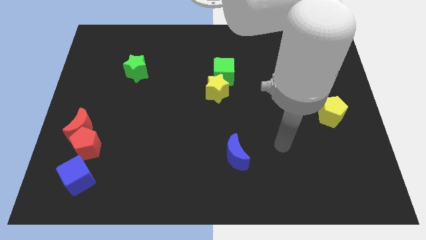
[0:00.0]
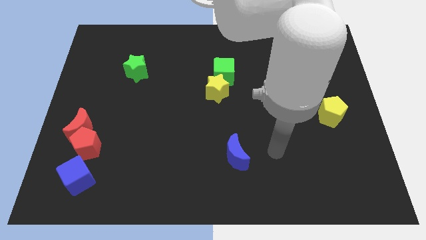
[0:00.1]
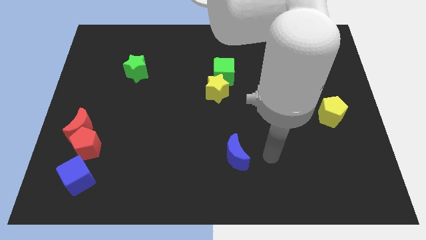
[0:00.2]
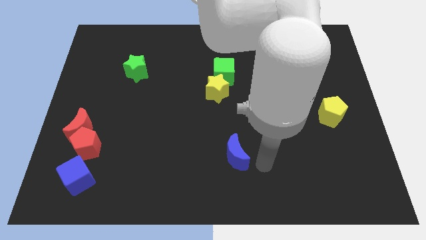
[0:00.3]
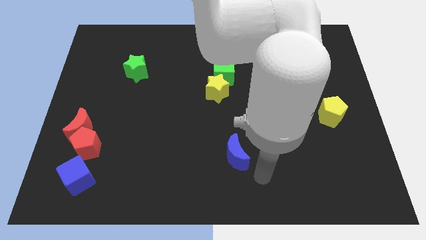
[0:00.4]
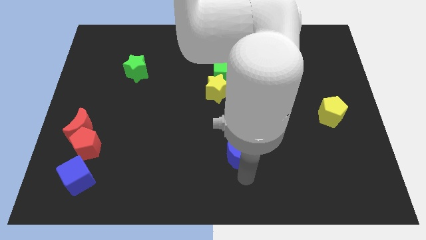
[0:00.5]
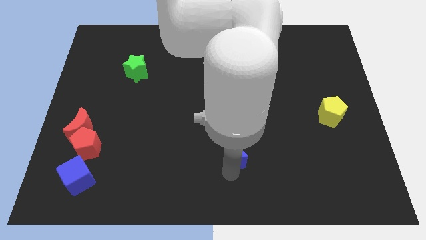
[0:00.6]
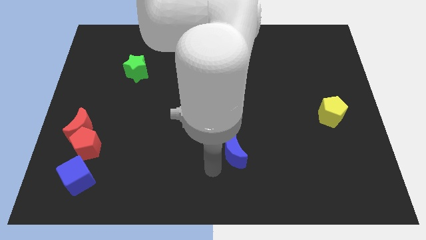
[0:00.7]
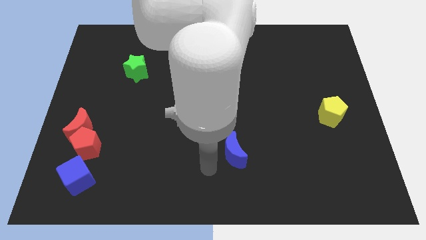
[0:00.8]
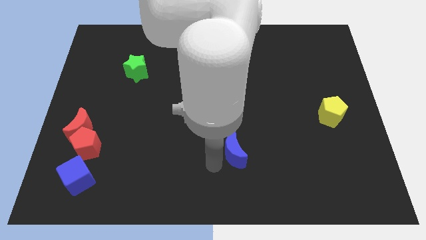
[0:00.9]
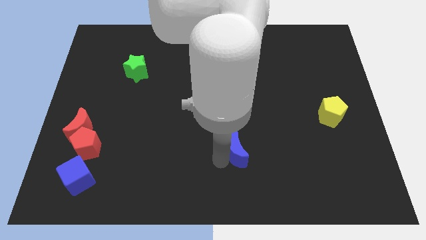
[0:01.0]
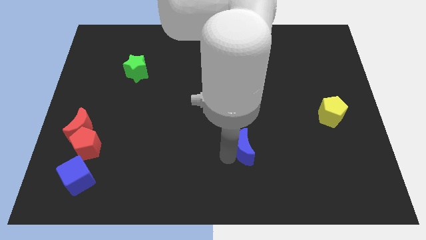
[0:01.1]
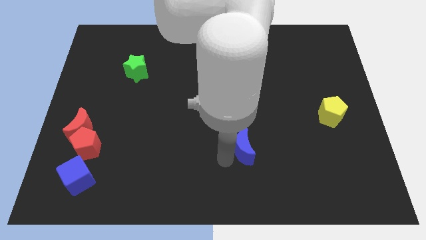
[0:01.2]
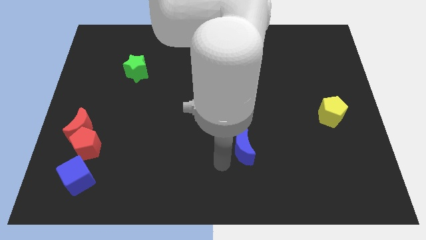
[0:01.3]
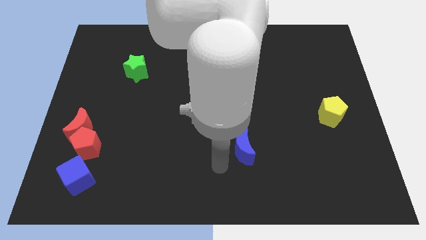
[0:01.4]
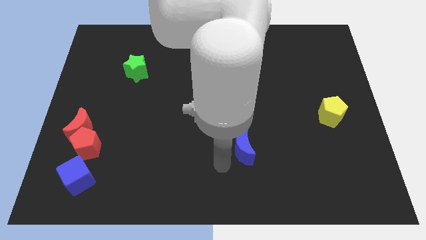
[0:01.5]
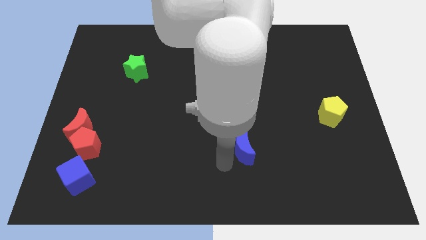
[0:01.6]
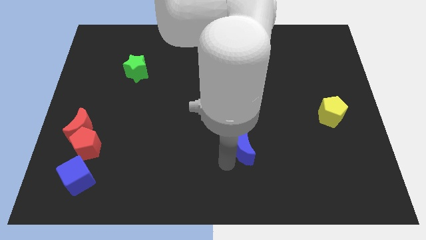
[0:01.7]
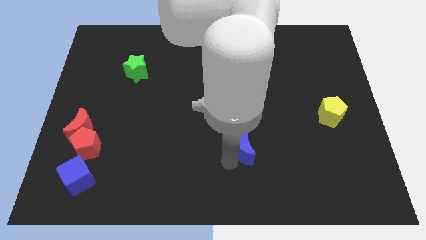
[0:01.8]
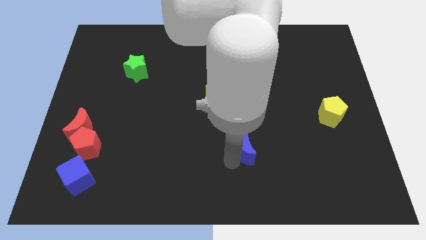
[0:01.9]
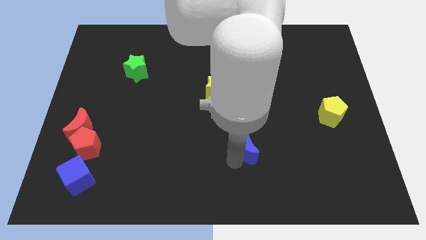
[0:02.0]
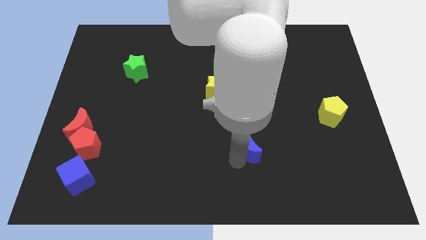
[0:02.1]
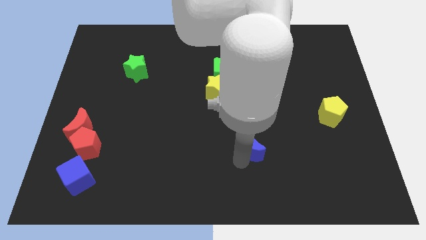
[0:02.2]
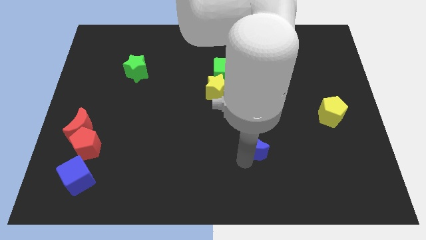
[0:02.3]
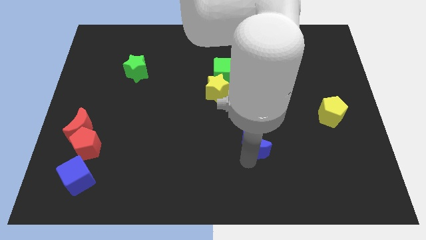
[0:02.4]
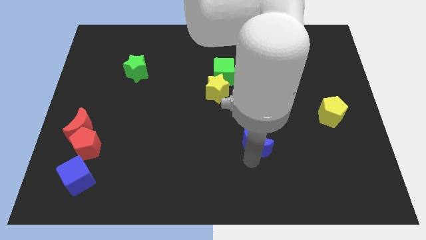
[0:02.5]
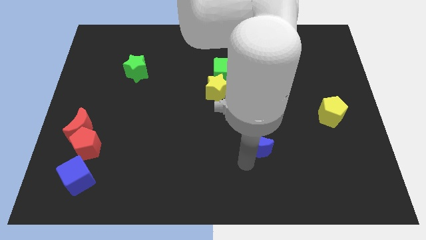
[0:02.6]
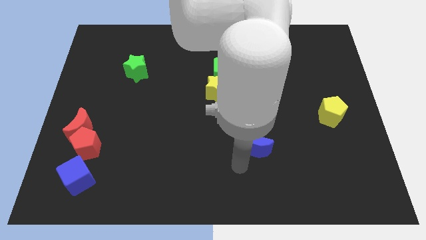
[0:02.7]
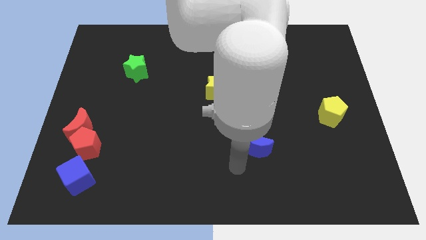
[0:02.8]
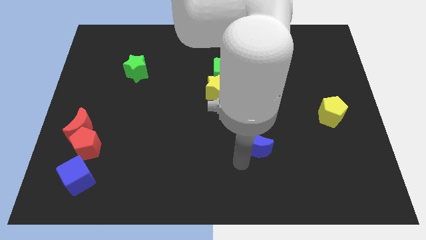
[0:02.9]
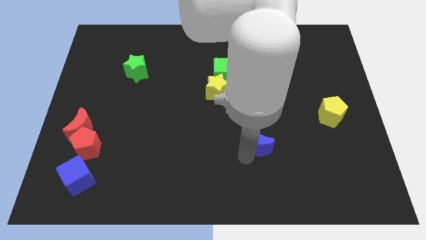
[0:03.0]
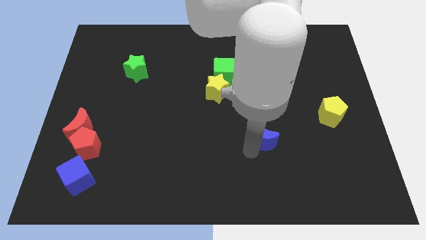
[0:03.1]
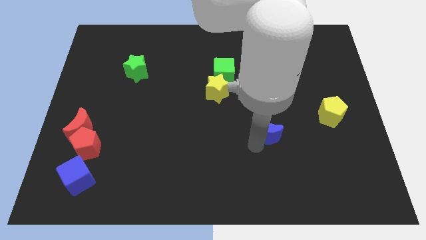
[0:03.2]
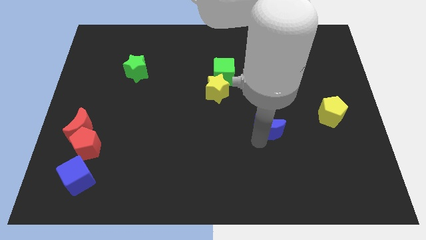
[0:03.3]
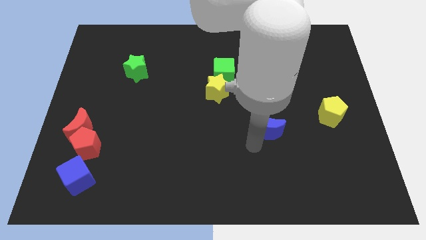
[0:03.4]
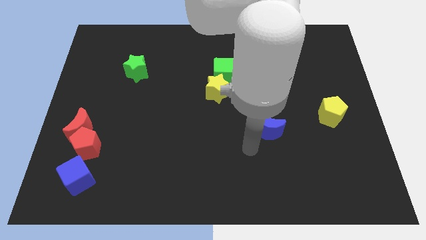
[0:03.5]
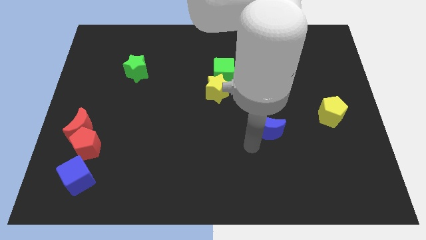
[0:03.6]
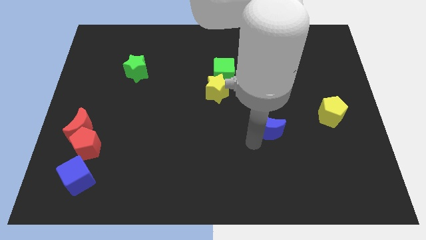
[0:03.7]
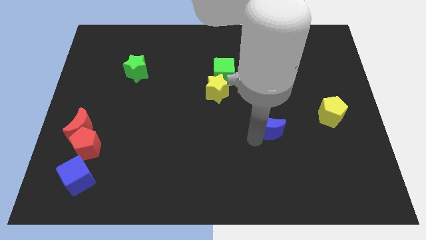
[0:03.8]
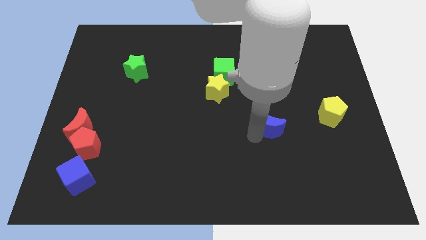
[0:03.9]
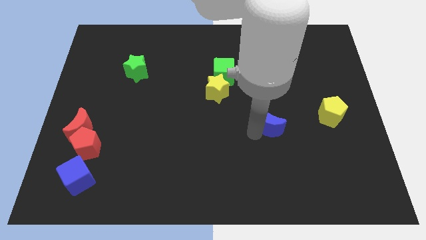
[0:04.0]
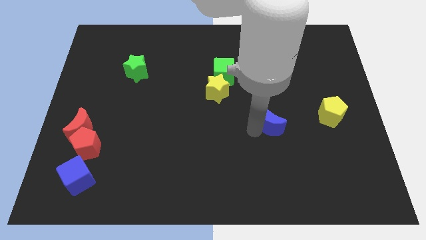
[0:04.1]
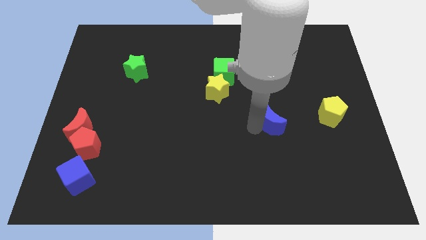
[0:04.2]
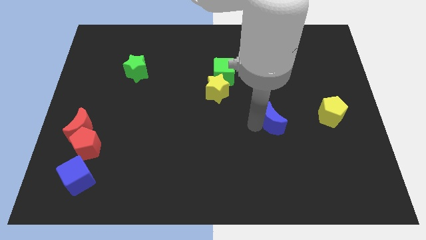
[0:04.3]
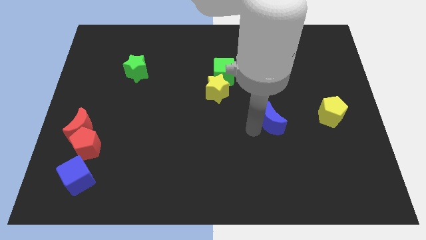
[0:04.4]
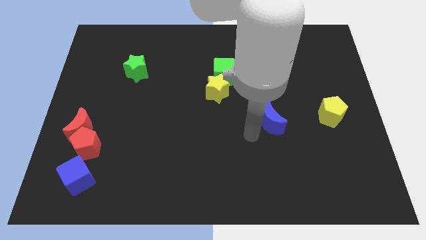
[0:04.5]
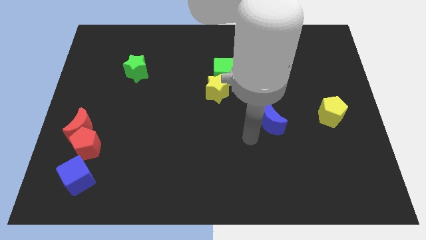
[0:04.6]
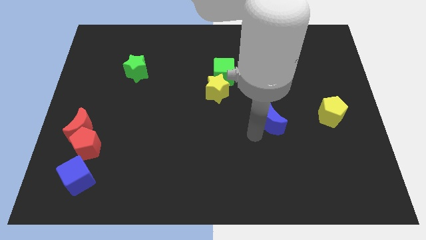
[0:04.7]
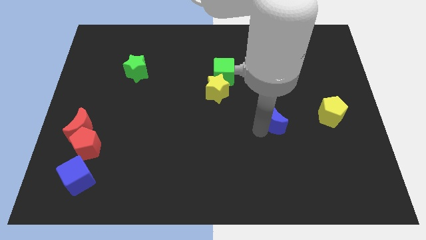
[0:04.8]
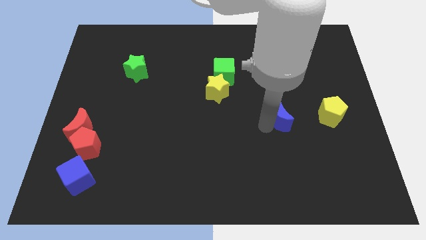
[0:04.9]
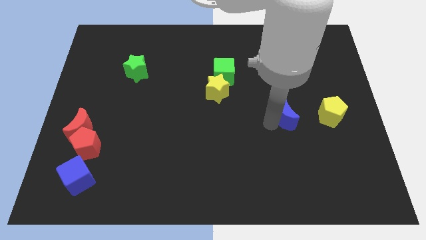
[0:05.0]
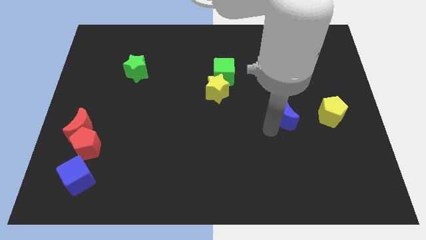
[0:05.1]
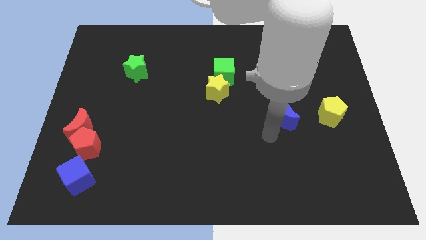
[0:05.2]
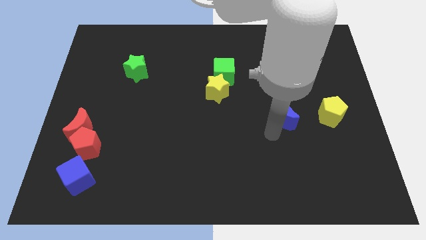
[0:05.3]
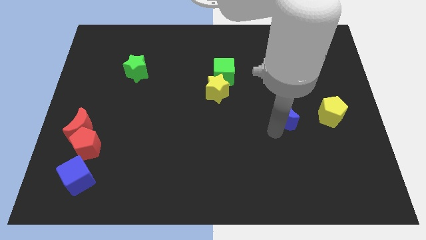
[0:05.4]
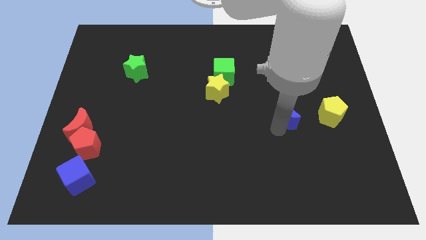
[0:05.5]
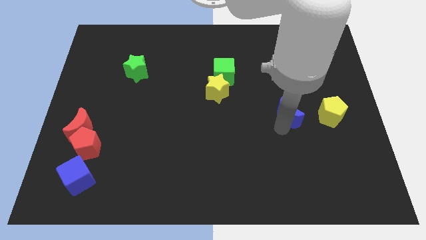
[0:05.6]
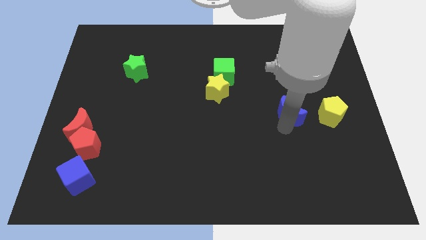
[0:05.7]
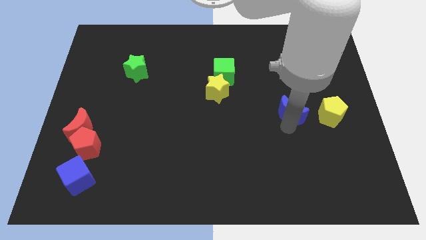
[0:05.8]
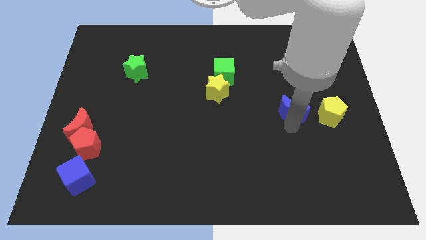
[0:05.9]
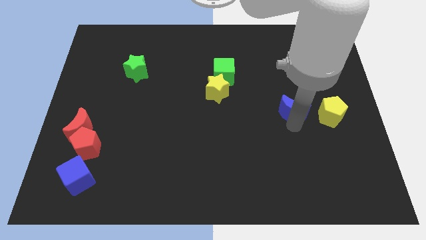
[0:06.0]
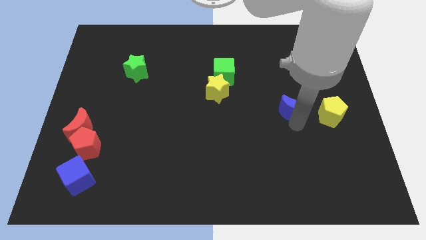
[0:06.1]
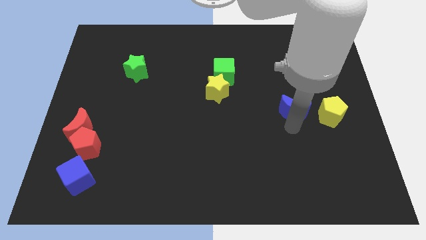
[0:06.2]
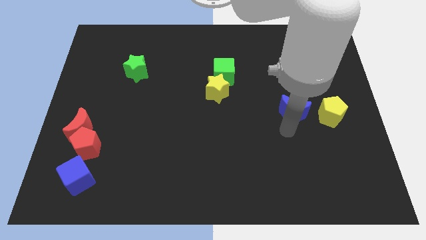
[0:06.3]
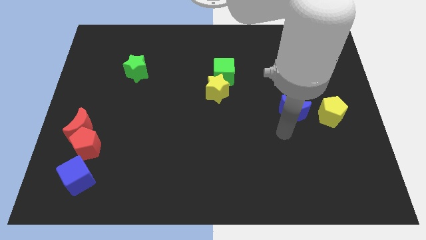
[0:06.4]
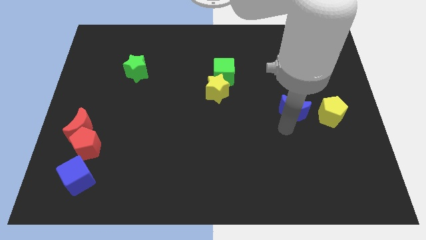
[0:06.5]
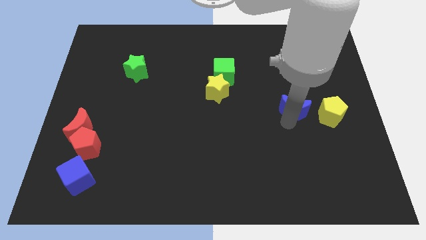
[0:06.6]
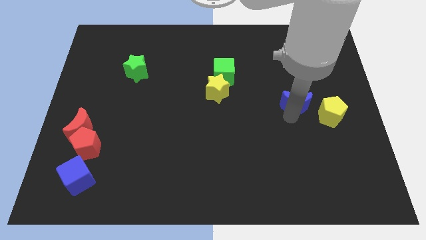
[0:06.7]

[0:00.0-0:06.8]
push the blue moon up and then to the right

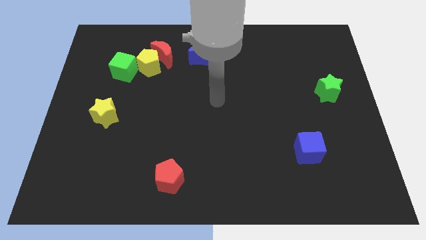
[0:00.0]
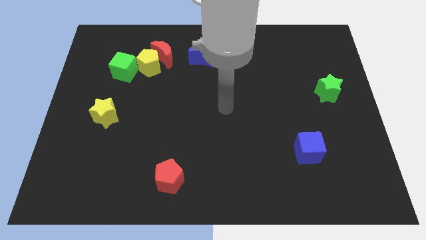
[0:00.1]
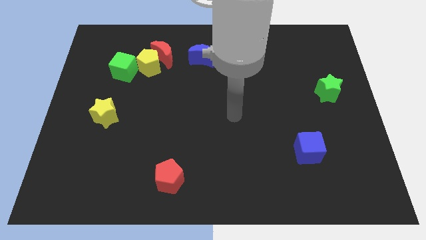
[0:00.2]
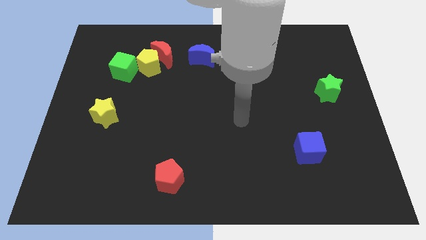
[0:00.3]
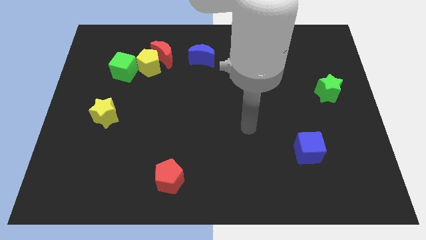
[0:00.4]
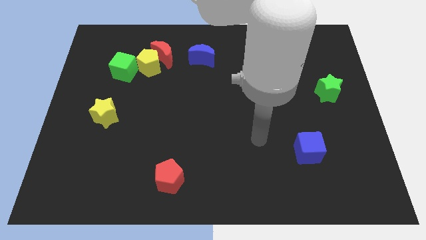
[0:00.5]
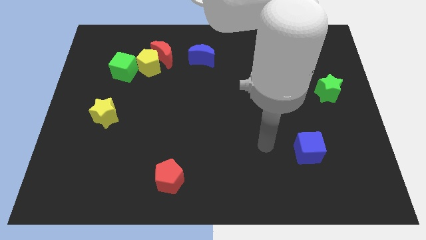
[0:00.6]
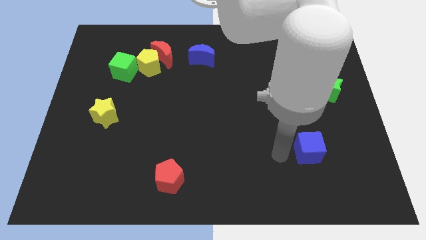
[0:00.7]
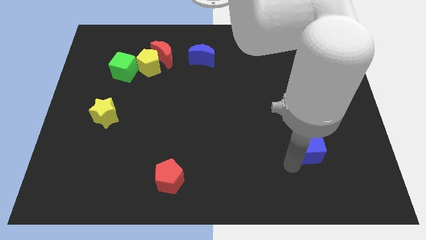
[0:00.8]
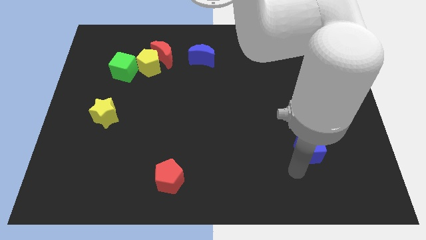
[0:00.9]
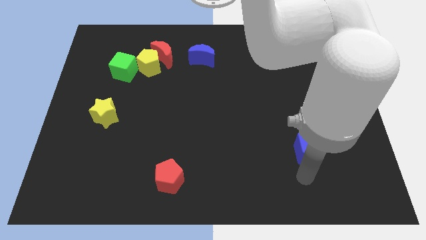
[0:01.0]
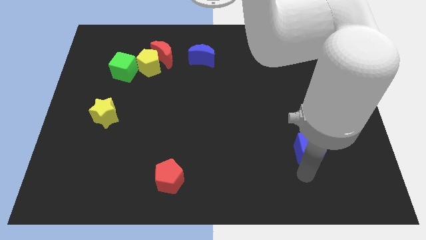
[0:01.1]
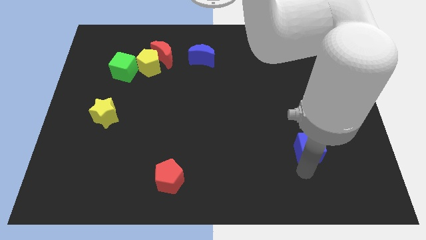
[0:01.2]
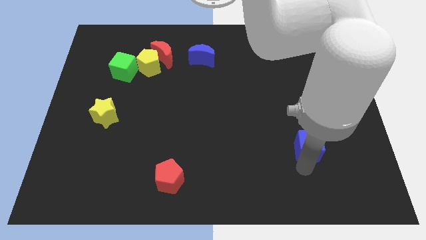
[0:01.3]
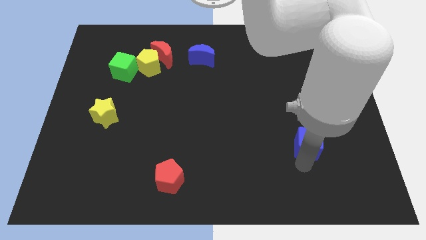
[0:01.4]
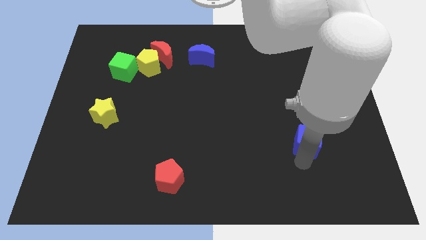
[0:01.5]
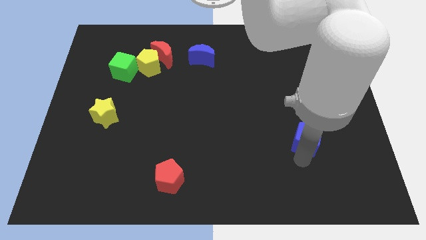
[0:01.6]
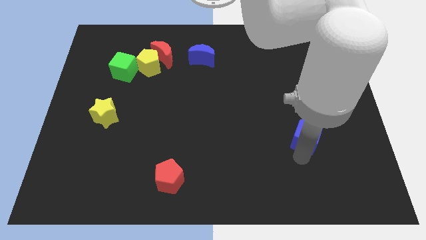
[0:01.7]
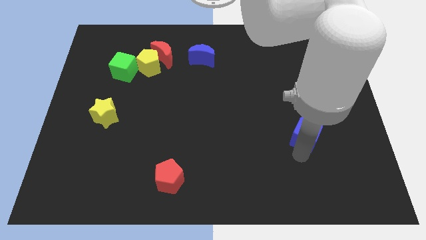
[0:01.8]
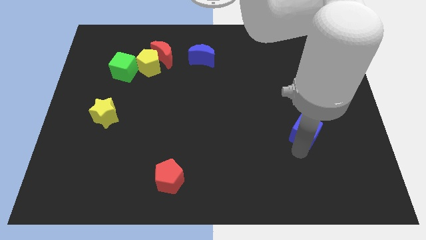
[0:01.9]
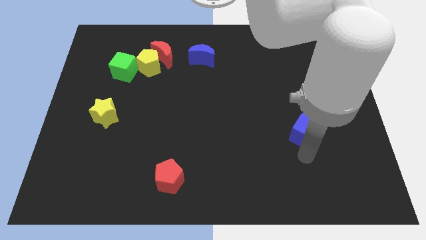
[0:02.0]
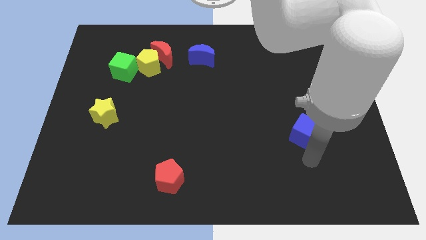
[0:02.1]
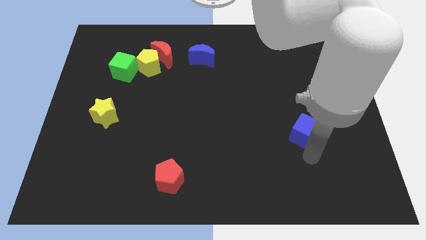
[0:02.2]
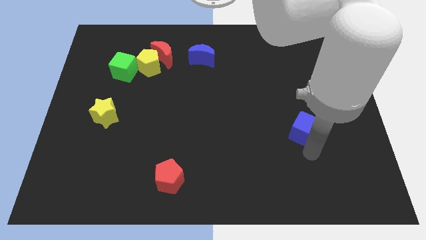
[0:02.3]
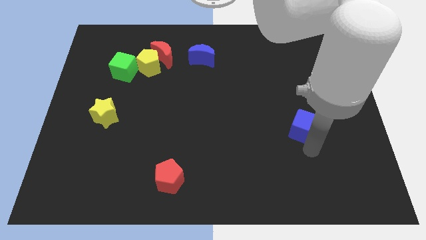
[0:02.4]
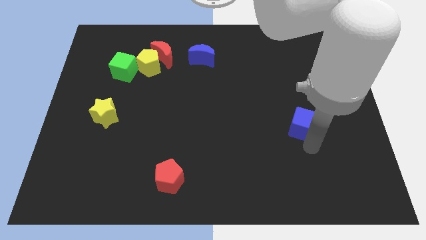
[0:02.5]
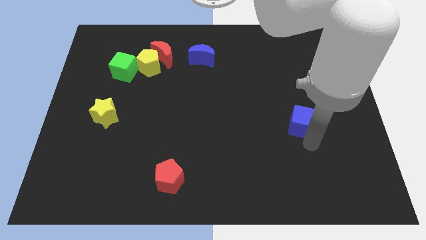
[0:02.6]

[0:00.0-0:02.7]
slightly move the blue cube upwards
